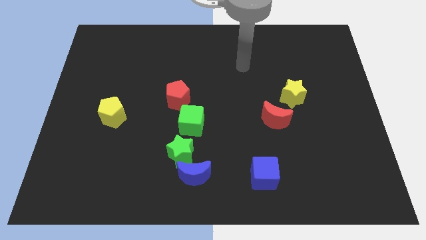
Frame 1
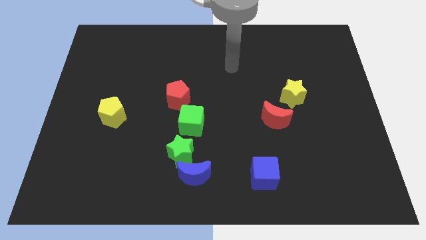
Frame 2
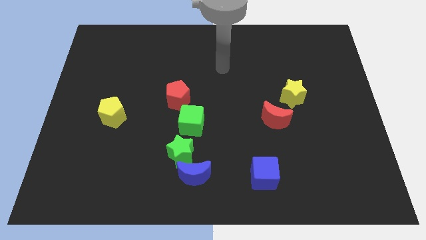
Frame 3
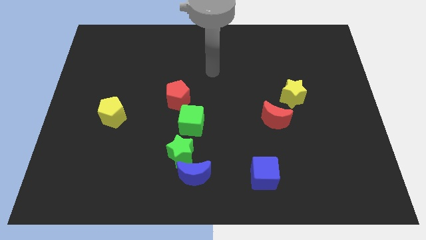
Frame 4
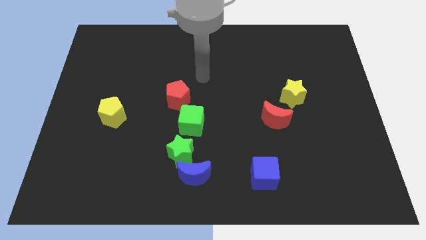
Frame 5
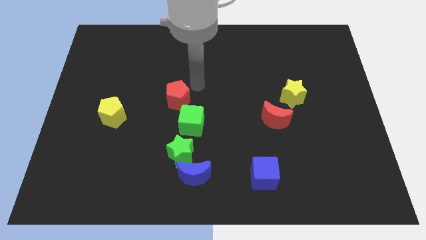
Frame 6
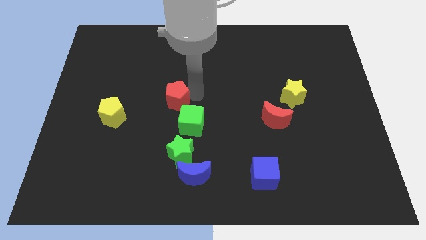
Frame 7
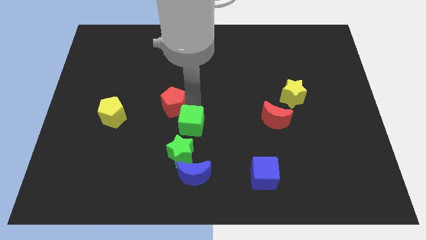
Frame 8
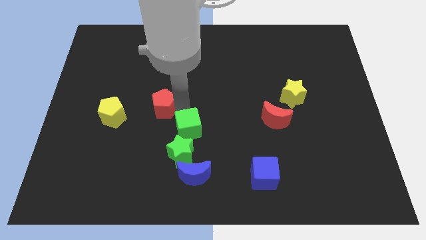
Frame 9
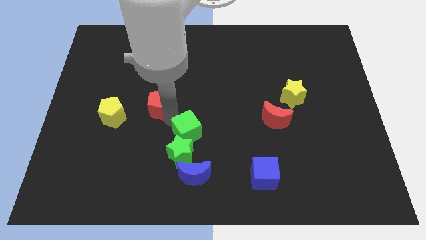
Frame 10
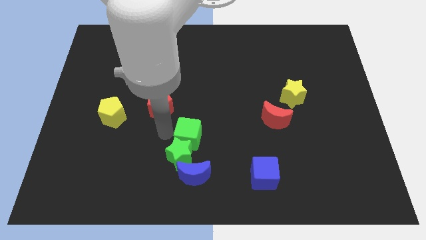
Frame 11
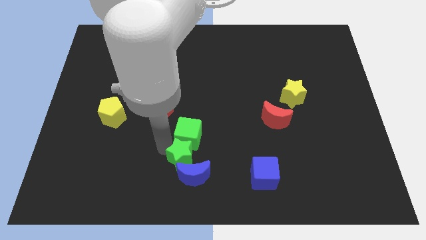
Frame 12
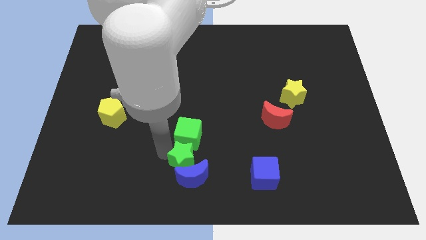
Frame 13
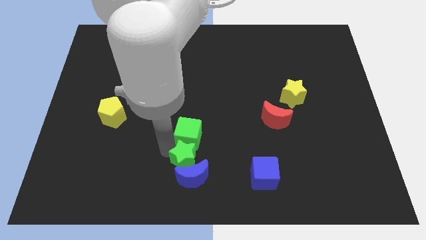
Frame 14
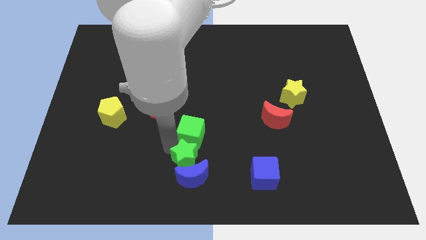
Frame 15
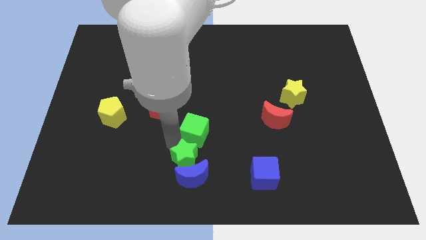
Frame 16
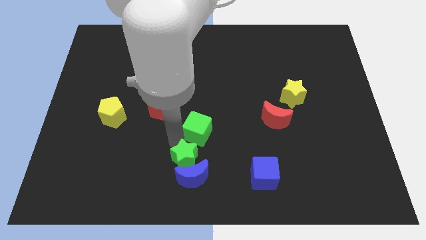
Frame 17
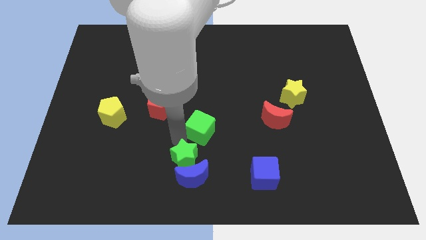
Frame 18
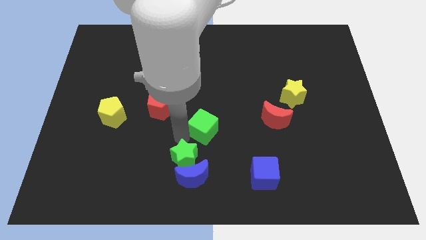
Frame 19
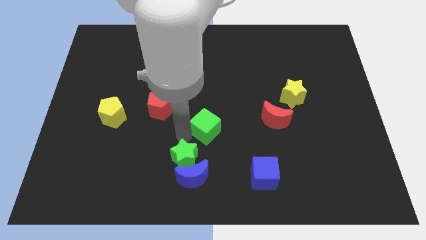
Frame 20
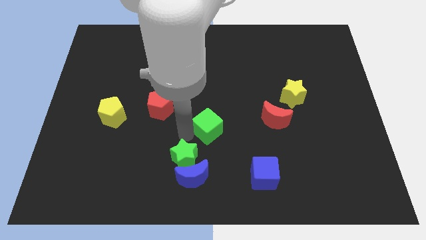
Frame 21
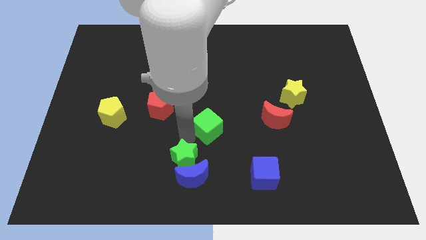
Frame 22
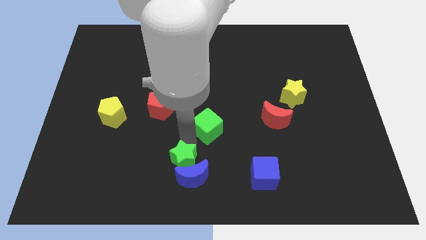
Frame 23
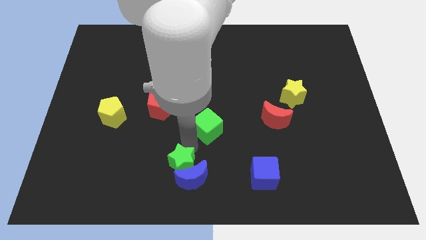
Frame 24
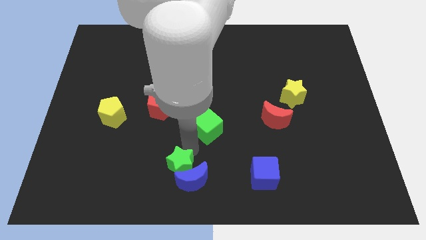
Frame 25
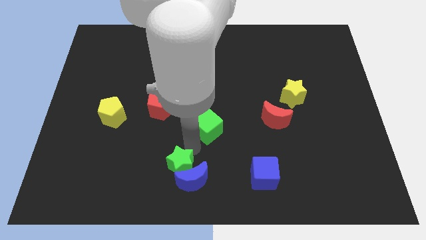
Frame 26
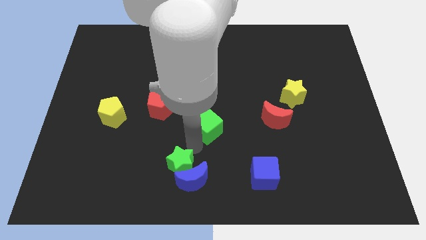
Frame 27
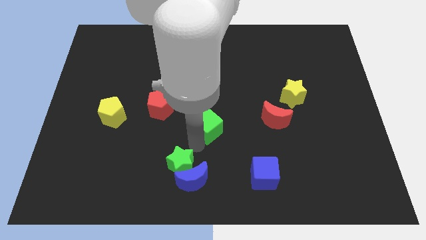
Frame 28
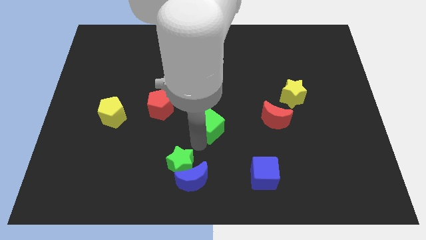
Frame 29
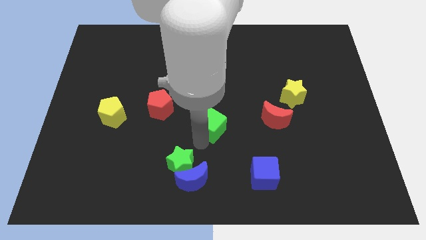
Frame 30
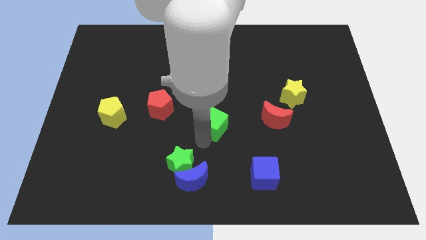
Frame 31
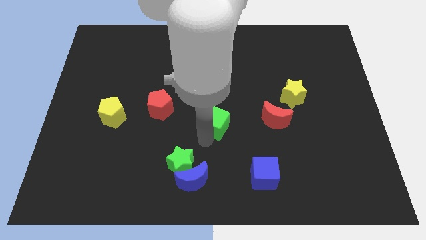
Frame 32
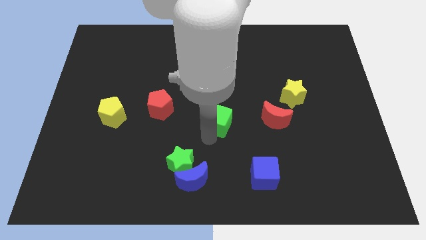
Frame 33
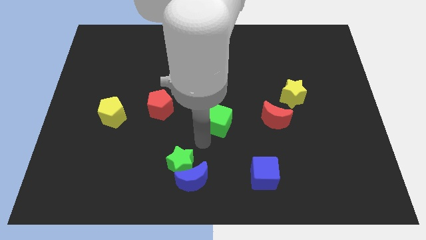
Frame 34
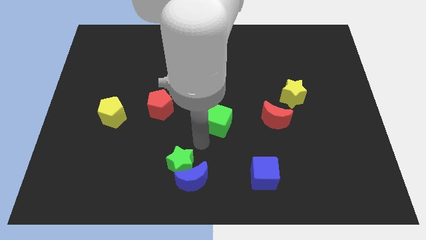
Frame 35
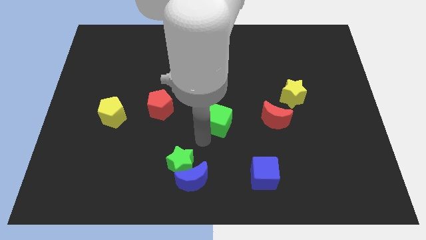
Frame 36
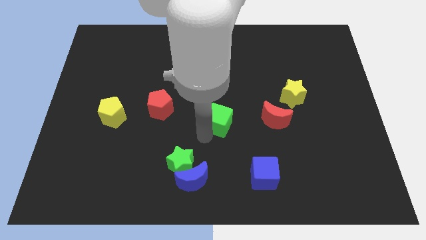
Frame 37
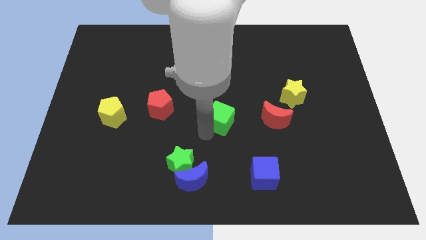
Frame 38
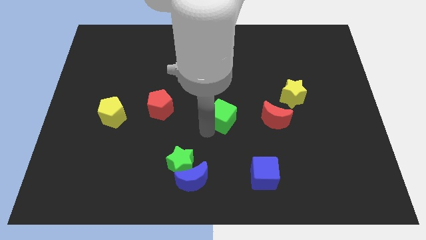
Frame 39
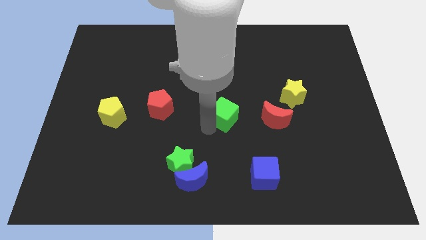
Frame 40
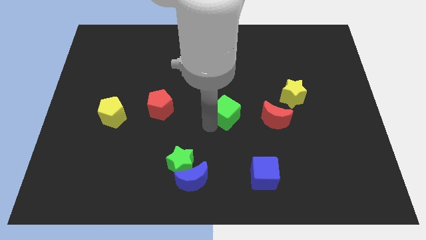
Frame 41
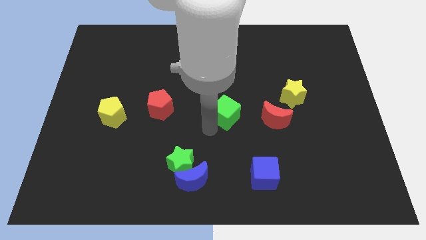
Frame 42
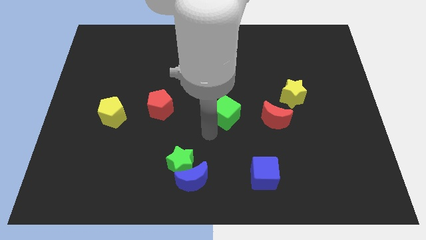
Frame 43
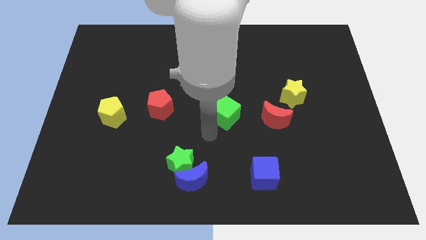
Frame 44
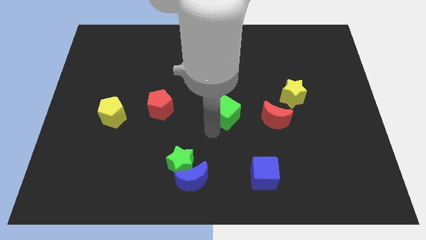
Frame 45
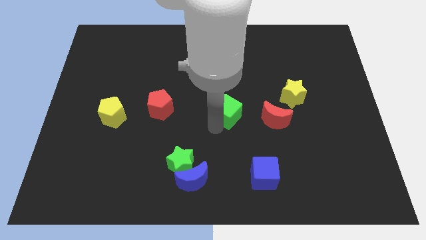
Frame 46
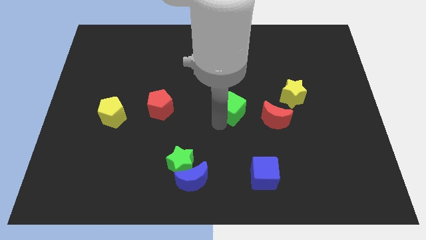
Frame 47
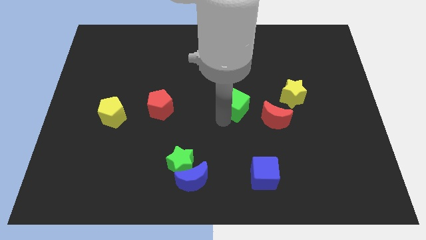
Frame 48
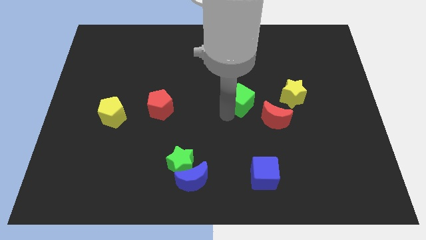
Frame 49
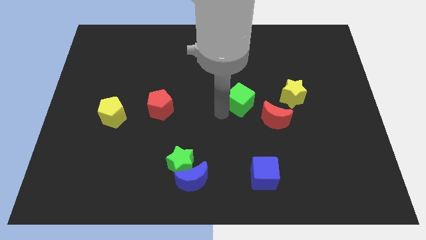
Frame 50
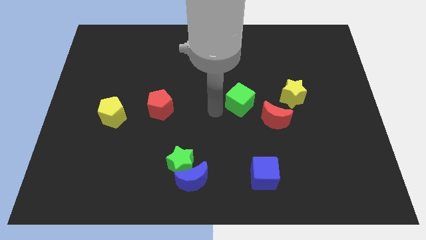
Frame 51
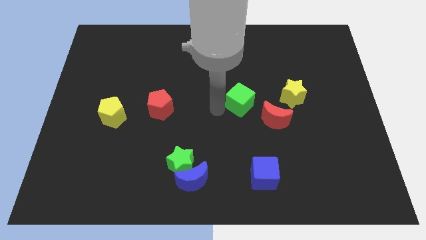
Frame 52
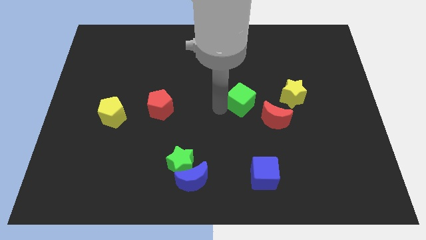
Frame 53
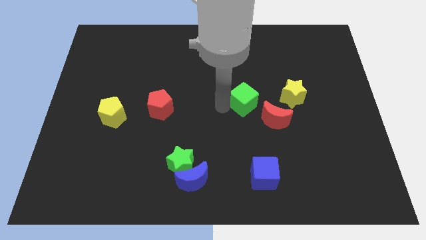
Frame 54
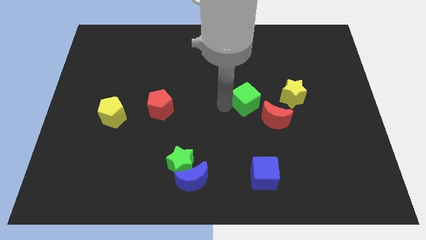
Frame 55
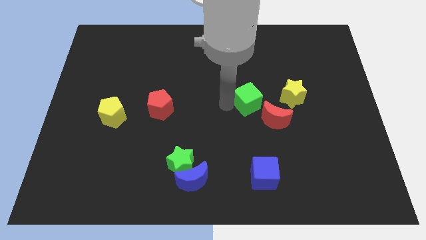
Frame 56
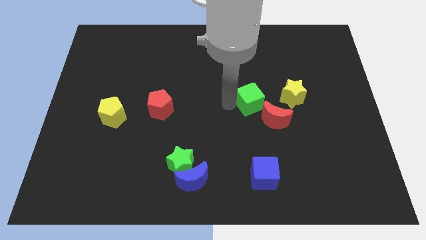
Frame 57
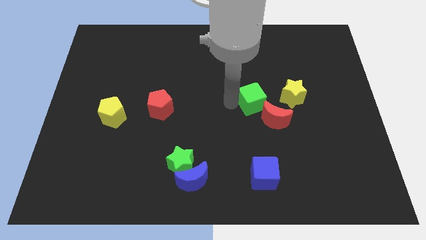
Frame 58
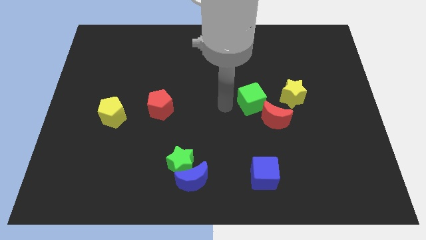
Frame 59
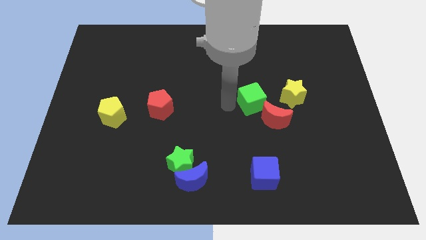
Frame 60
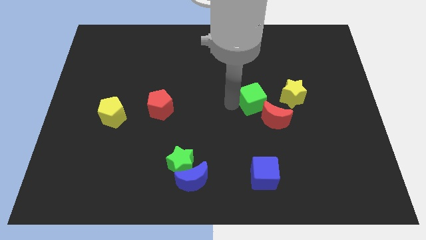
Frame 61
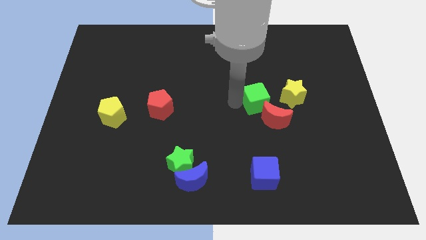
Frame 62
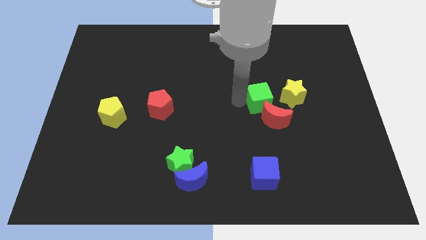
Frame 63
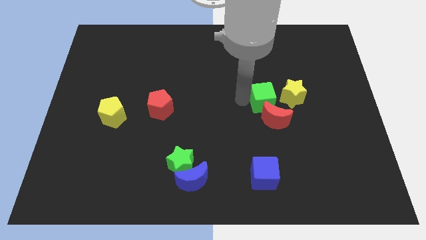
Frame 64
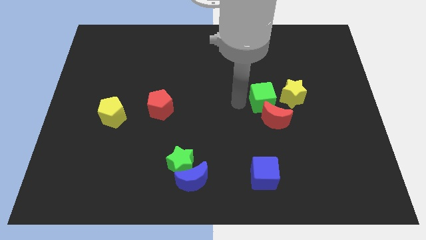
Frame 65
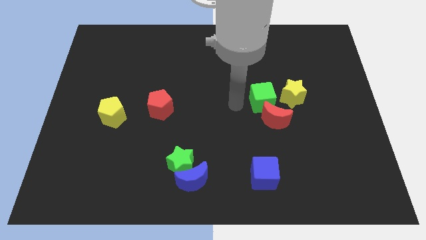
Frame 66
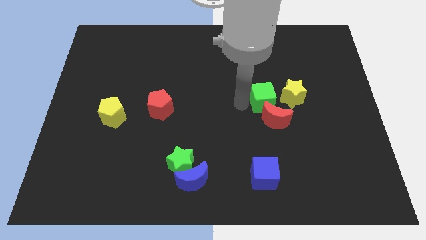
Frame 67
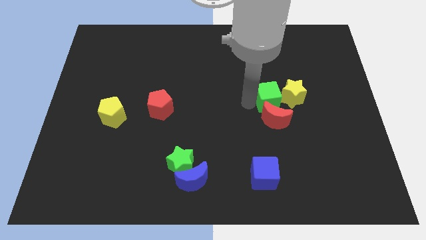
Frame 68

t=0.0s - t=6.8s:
put the green cube next to the yellow star
